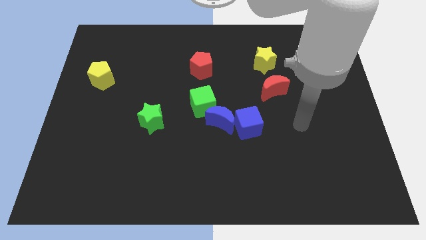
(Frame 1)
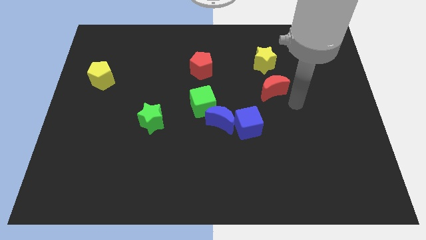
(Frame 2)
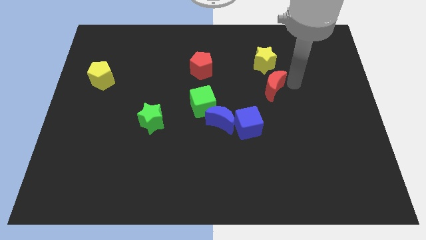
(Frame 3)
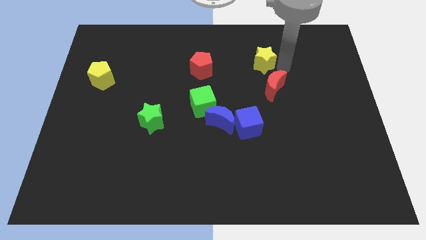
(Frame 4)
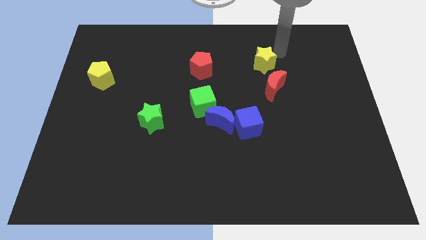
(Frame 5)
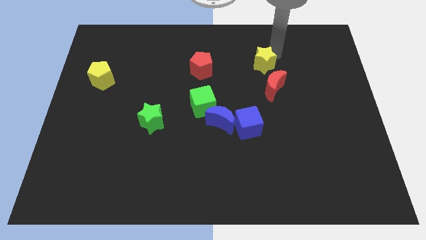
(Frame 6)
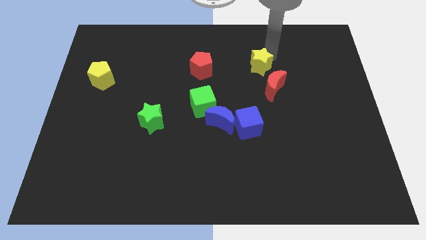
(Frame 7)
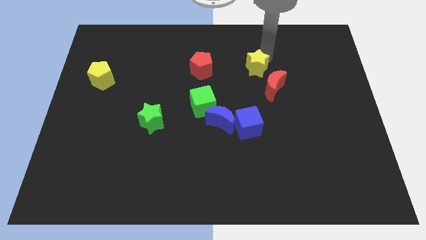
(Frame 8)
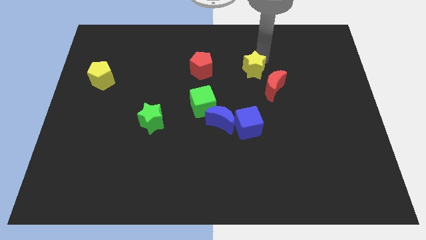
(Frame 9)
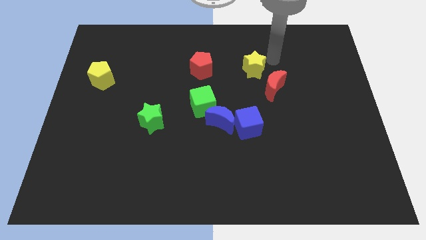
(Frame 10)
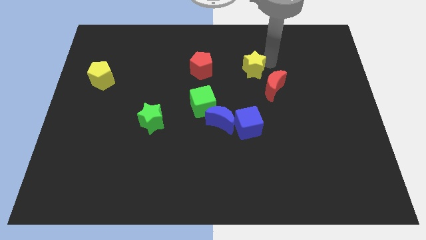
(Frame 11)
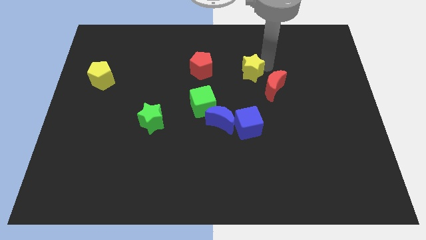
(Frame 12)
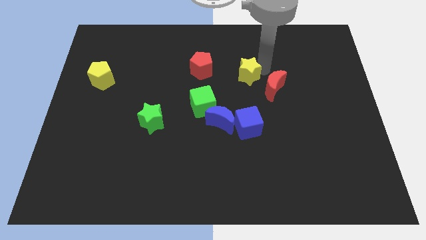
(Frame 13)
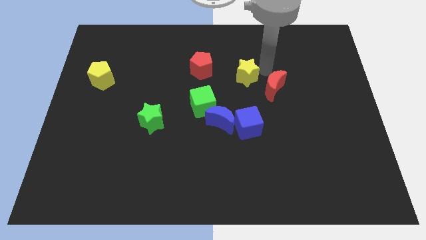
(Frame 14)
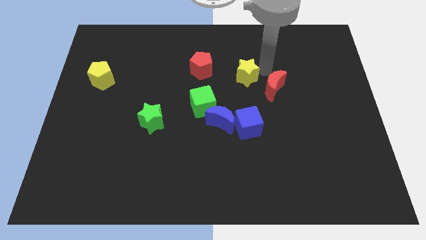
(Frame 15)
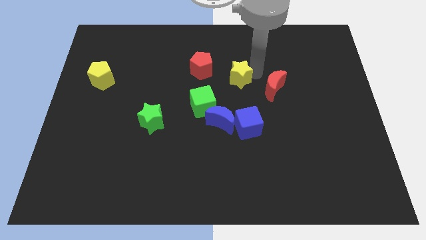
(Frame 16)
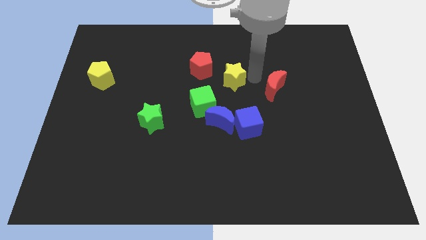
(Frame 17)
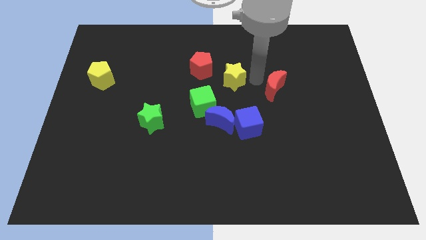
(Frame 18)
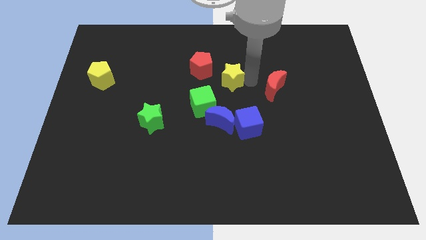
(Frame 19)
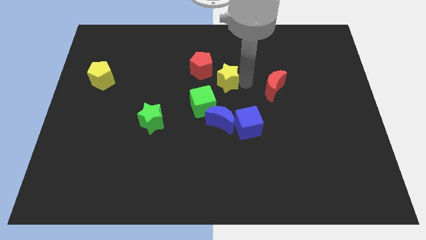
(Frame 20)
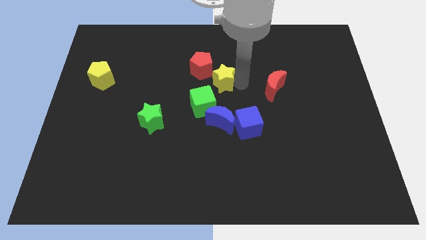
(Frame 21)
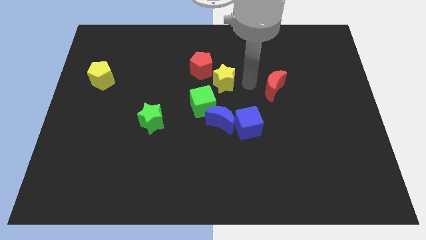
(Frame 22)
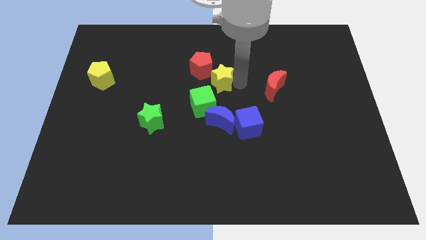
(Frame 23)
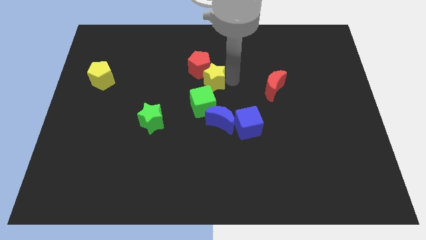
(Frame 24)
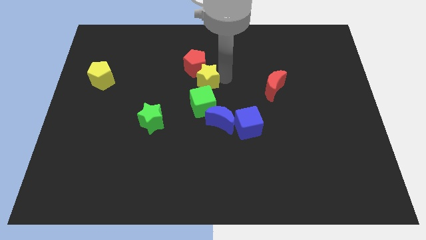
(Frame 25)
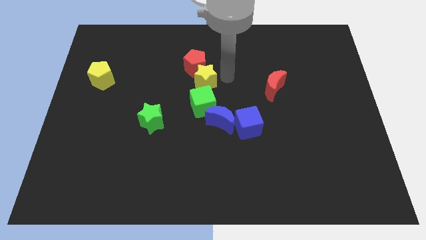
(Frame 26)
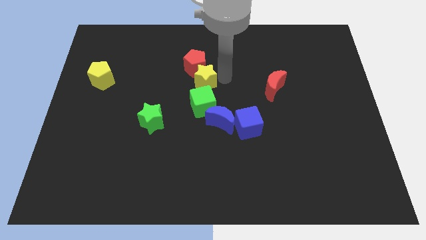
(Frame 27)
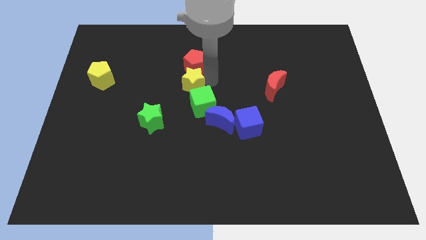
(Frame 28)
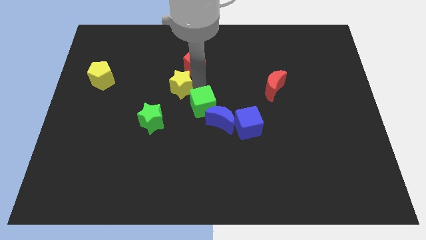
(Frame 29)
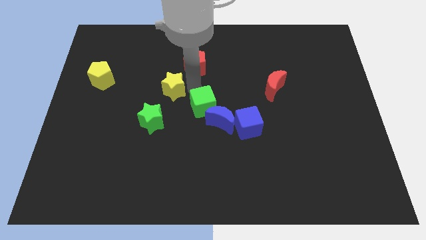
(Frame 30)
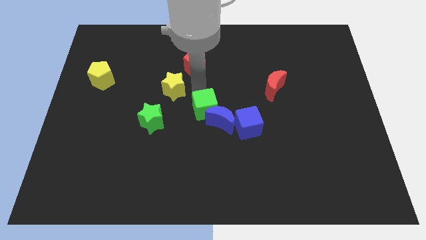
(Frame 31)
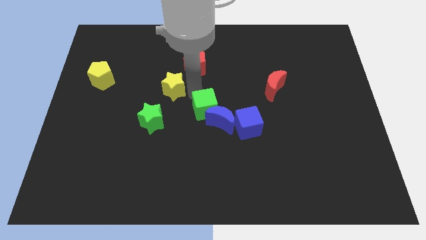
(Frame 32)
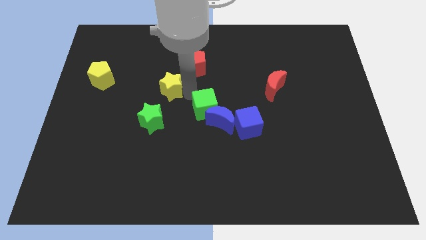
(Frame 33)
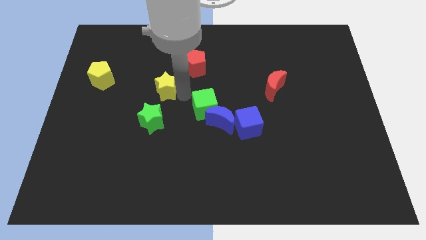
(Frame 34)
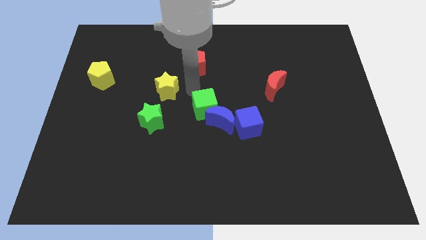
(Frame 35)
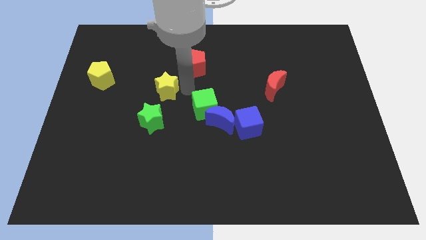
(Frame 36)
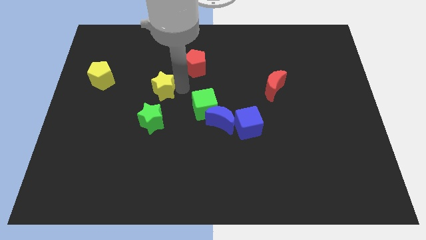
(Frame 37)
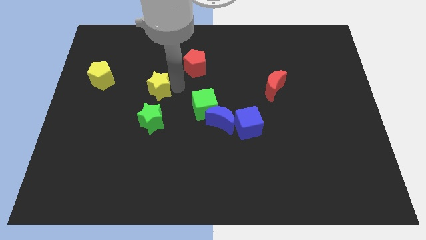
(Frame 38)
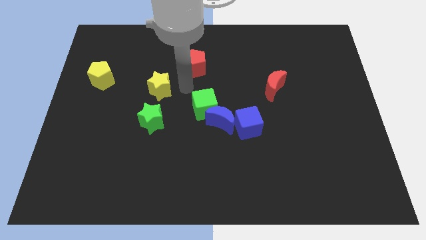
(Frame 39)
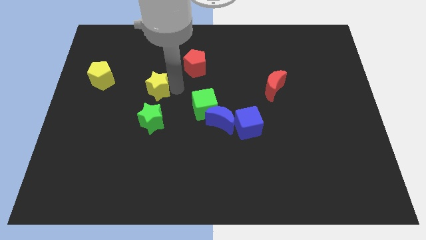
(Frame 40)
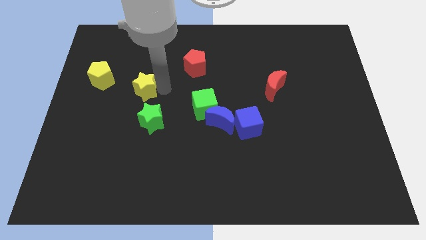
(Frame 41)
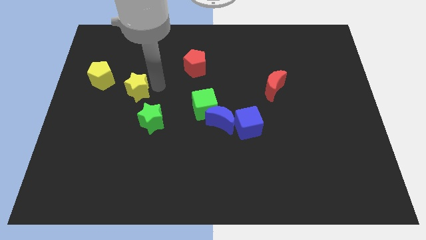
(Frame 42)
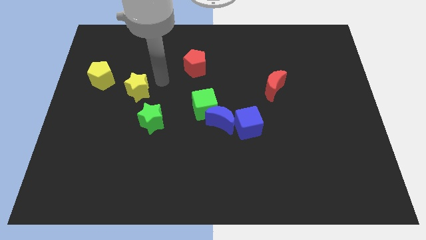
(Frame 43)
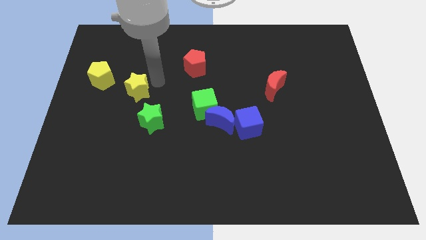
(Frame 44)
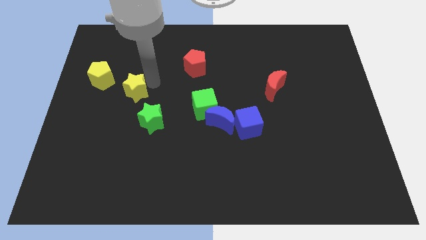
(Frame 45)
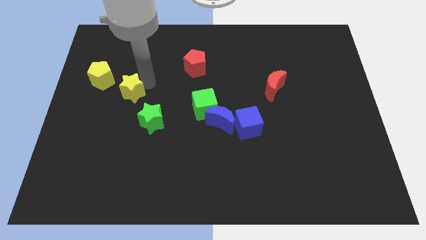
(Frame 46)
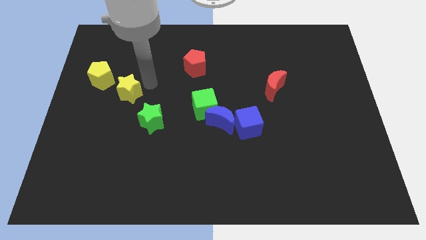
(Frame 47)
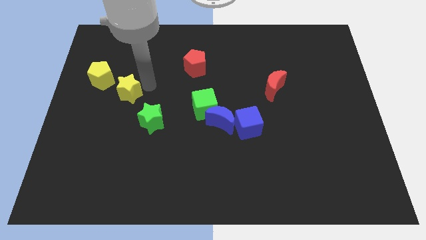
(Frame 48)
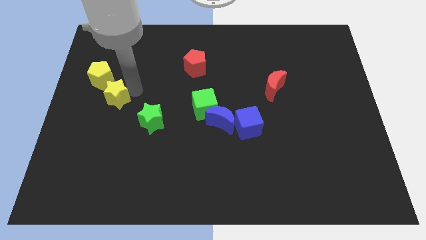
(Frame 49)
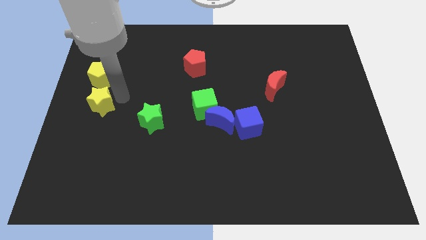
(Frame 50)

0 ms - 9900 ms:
push the yellow star to the left side

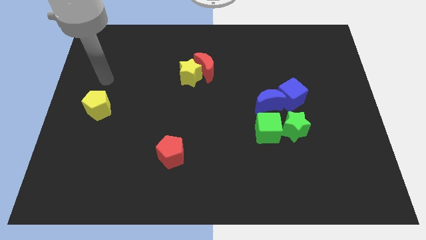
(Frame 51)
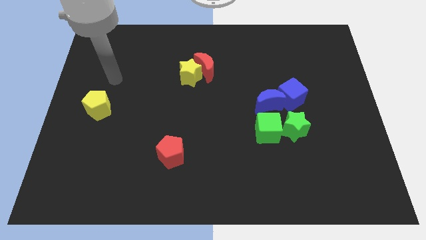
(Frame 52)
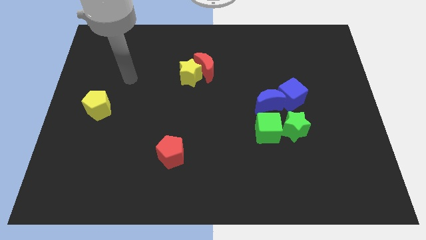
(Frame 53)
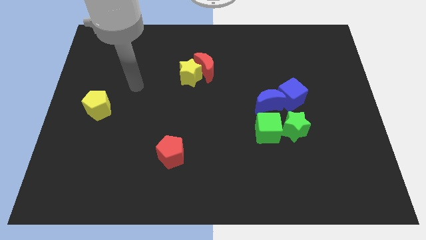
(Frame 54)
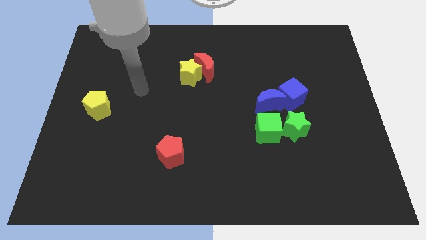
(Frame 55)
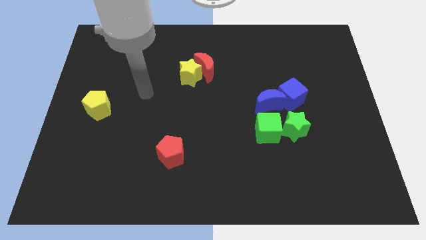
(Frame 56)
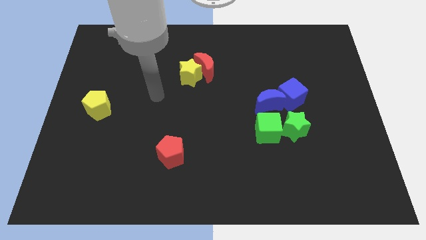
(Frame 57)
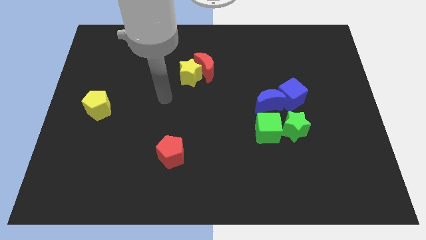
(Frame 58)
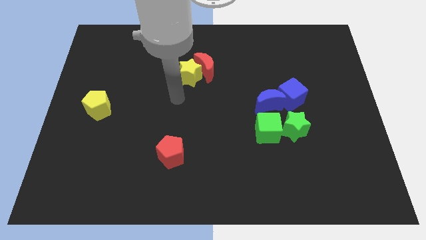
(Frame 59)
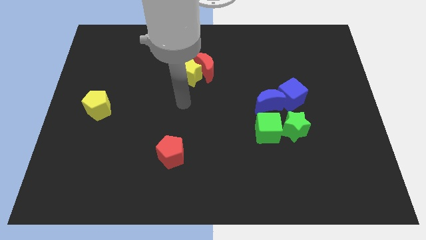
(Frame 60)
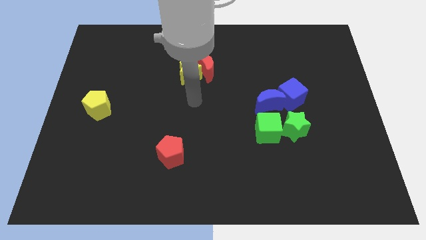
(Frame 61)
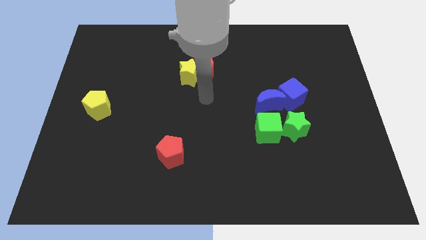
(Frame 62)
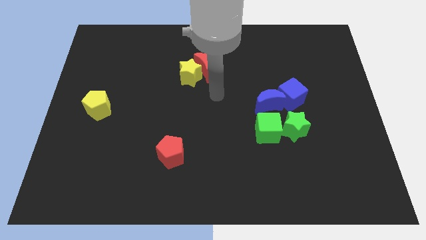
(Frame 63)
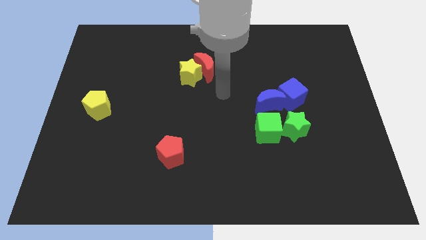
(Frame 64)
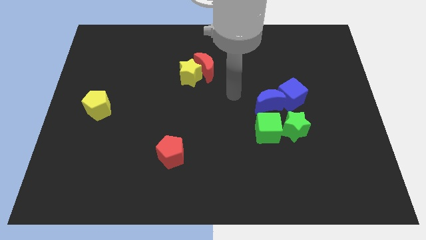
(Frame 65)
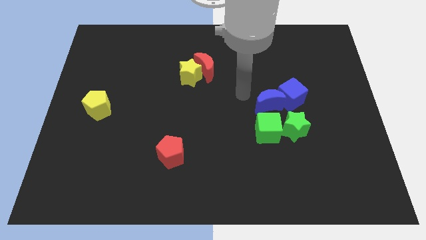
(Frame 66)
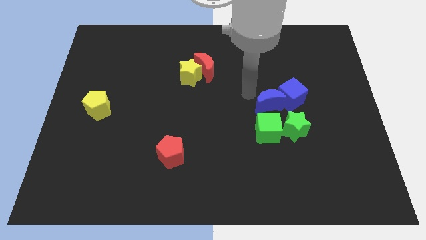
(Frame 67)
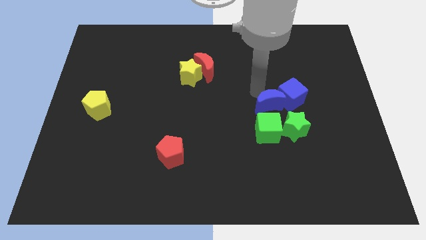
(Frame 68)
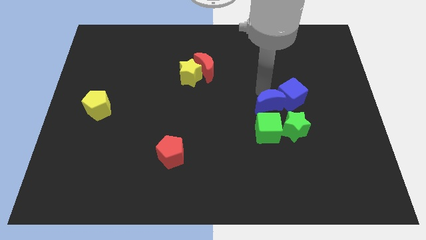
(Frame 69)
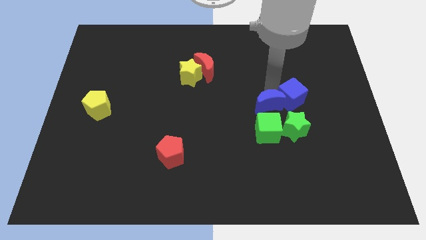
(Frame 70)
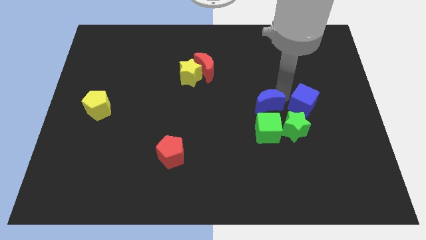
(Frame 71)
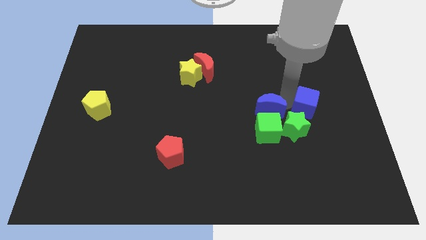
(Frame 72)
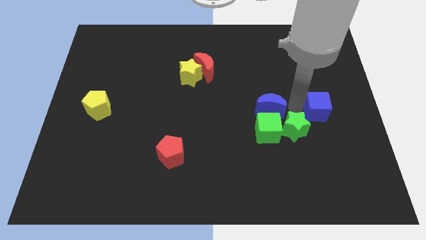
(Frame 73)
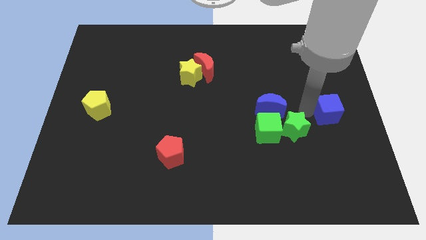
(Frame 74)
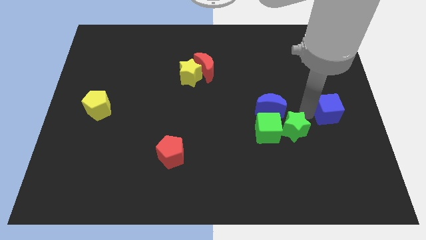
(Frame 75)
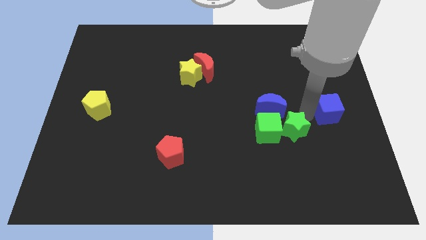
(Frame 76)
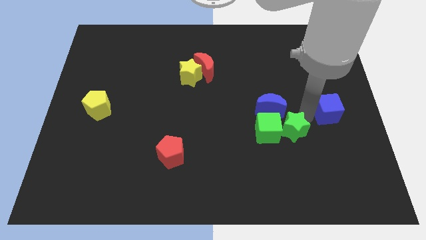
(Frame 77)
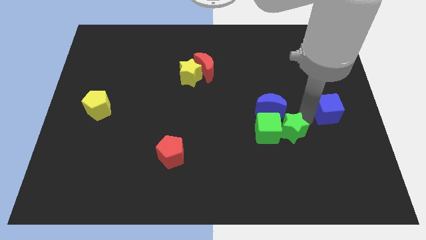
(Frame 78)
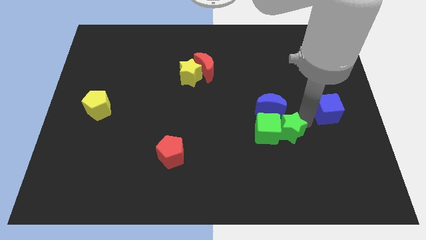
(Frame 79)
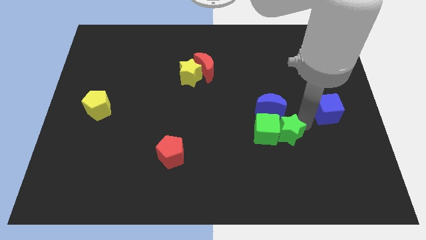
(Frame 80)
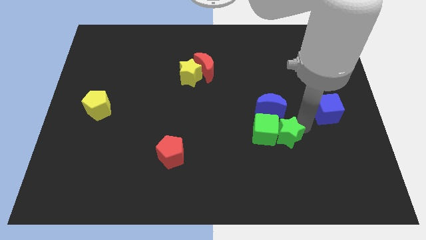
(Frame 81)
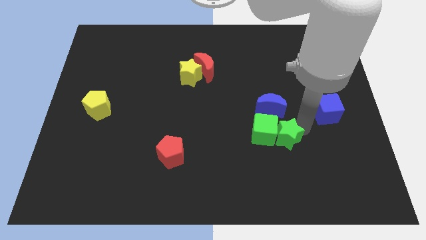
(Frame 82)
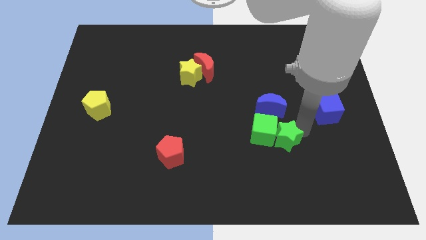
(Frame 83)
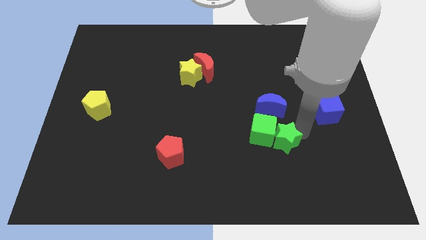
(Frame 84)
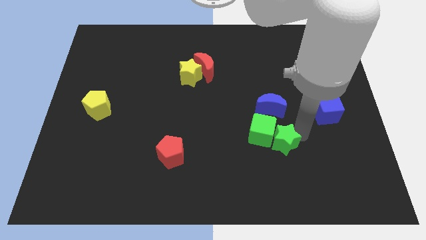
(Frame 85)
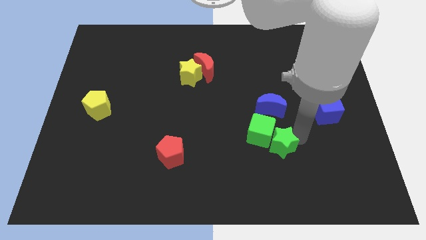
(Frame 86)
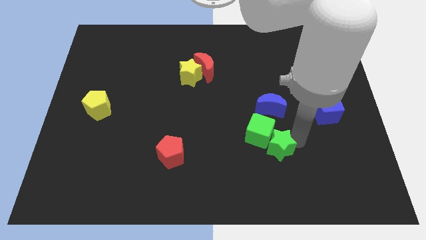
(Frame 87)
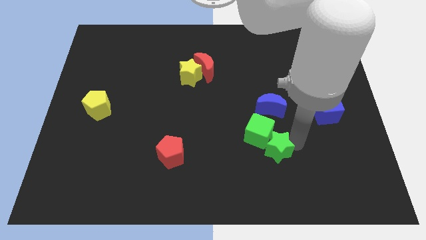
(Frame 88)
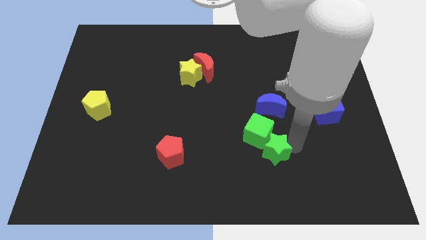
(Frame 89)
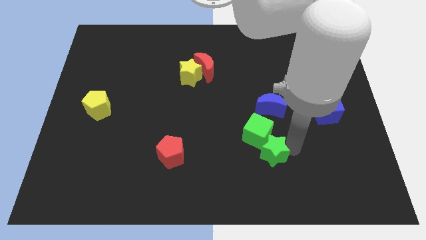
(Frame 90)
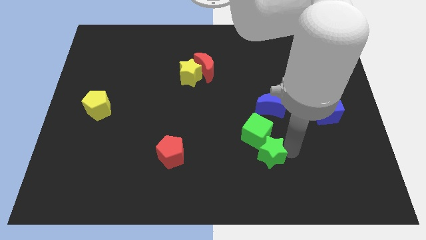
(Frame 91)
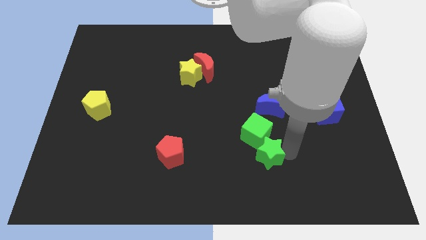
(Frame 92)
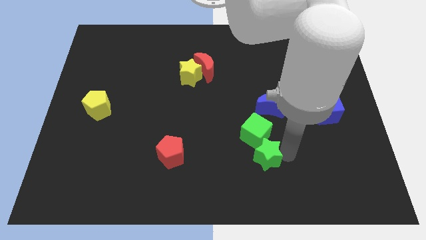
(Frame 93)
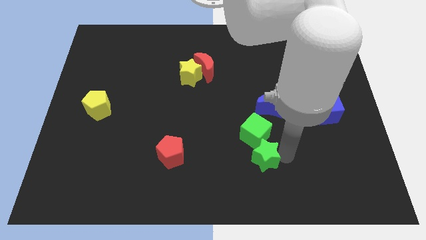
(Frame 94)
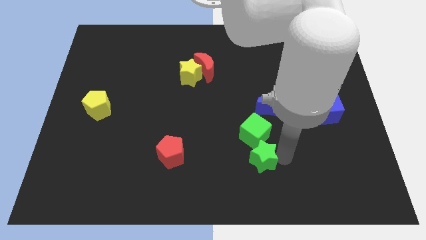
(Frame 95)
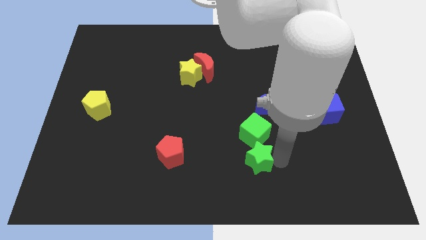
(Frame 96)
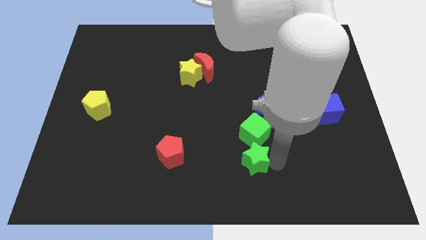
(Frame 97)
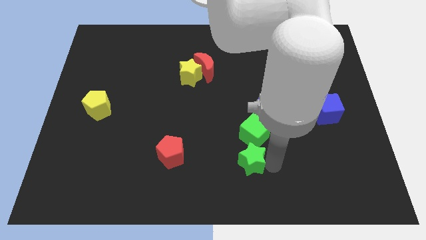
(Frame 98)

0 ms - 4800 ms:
slide the green star to the bottom side
